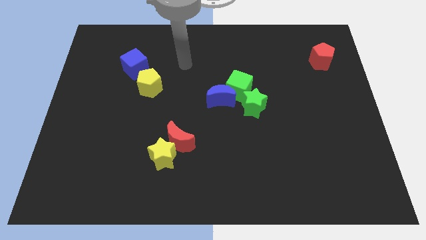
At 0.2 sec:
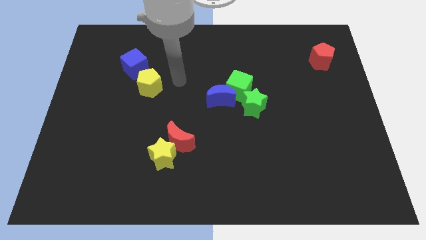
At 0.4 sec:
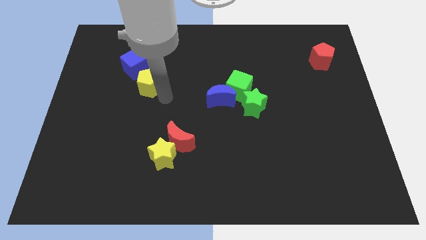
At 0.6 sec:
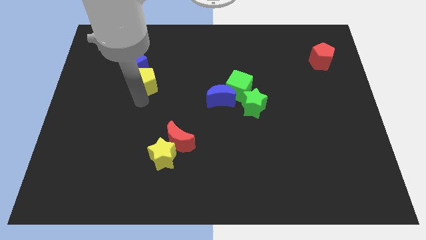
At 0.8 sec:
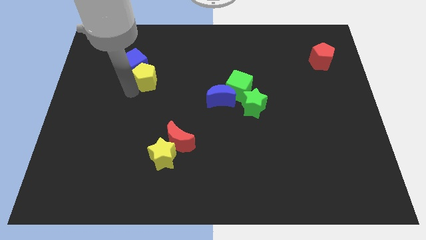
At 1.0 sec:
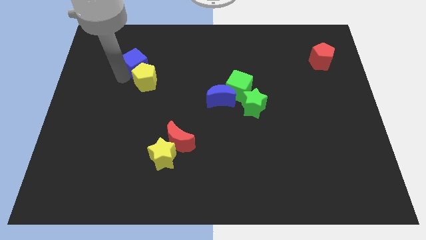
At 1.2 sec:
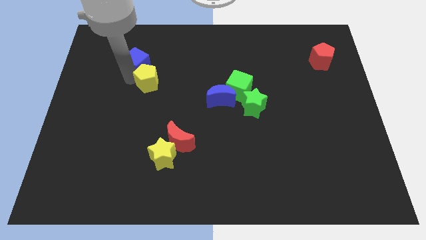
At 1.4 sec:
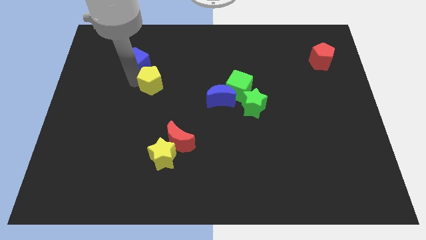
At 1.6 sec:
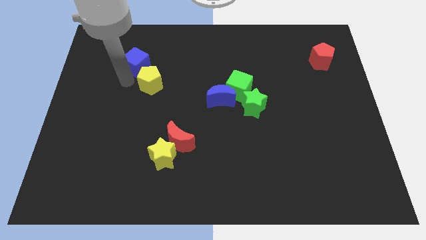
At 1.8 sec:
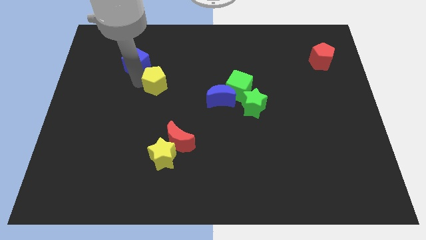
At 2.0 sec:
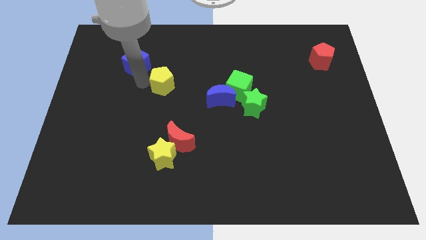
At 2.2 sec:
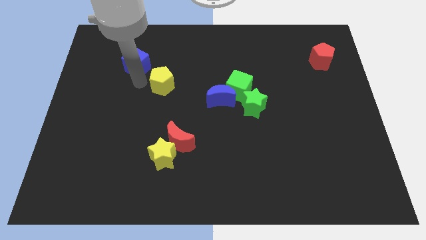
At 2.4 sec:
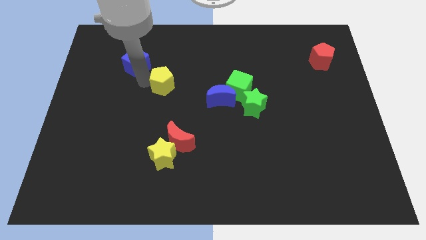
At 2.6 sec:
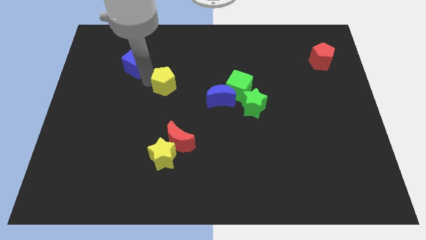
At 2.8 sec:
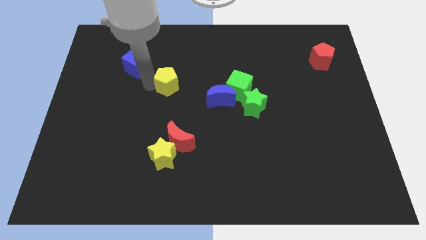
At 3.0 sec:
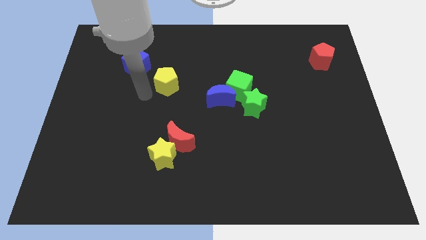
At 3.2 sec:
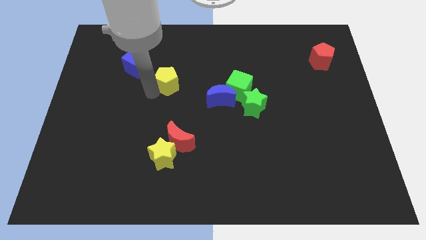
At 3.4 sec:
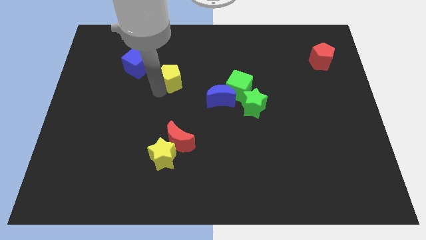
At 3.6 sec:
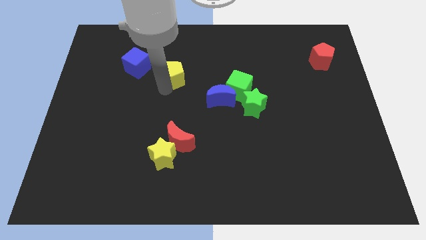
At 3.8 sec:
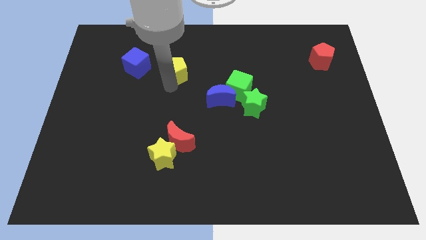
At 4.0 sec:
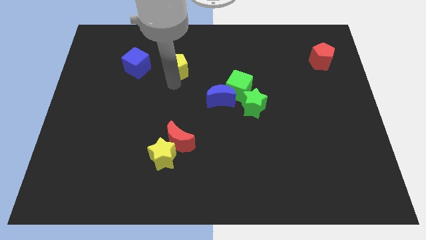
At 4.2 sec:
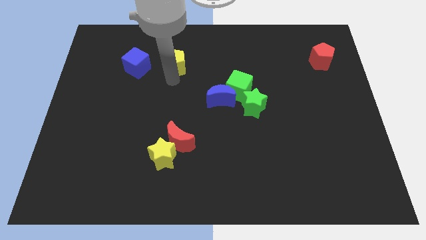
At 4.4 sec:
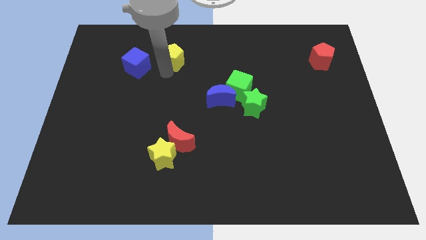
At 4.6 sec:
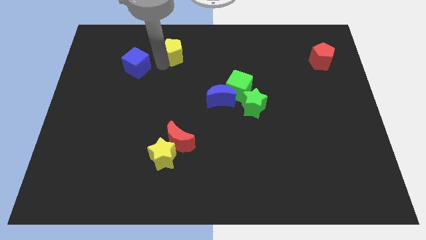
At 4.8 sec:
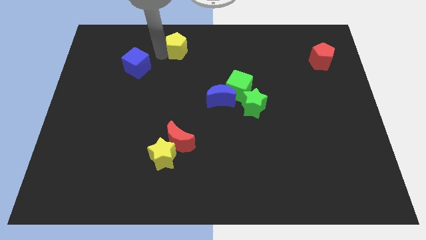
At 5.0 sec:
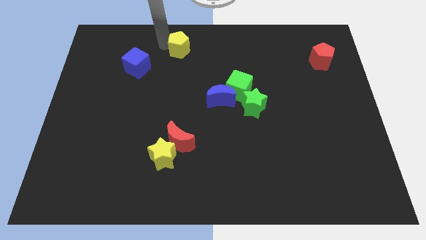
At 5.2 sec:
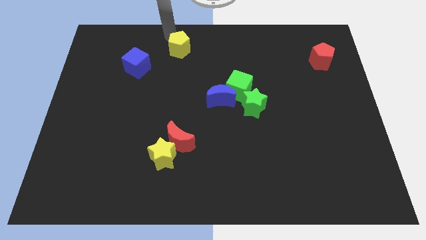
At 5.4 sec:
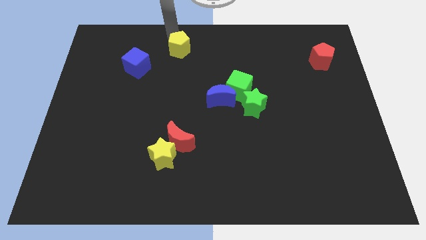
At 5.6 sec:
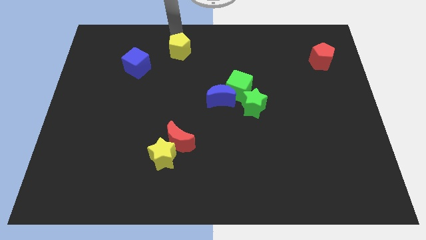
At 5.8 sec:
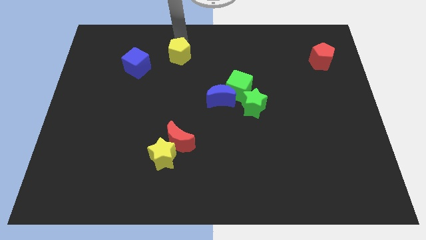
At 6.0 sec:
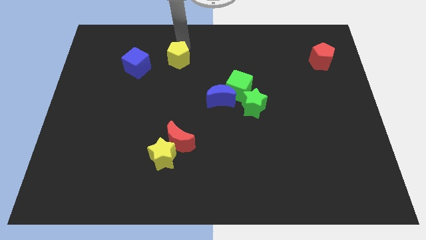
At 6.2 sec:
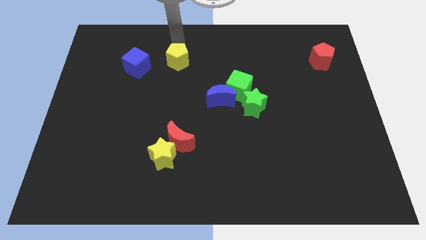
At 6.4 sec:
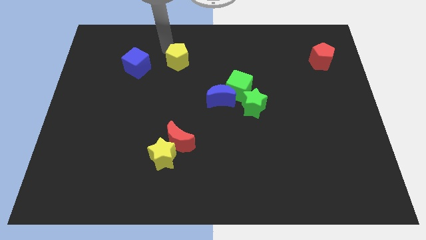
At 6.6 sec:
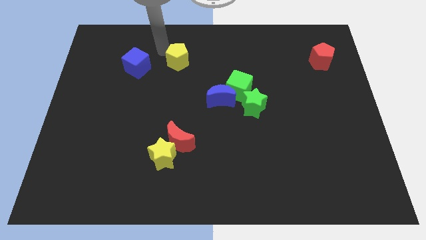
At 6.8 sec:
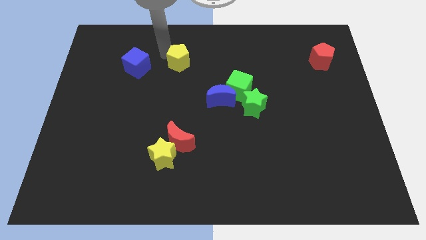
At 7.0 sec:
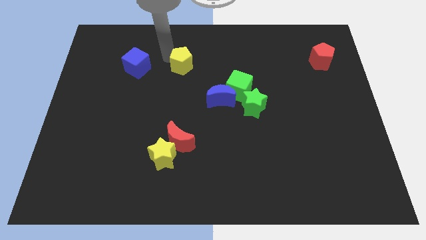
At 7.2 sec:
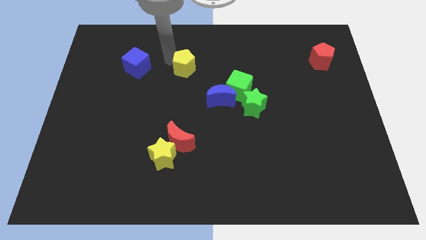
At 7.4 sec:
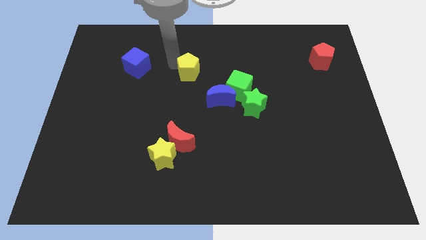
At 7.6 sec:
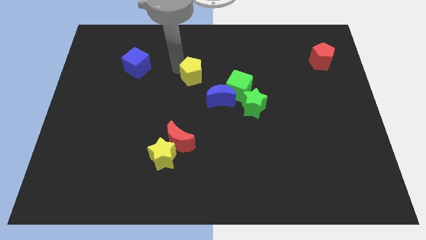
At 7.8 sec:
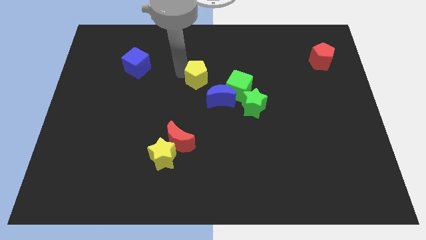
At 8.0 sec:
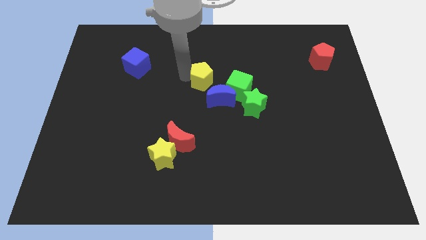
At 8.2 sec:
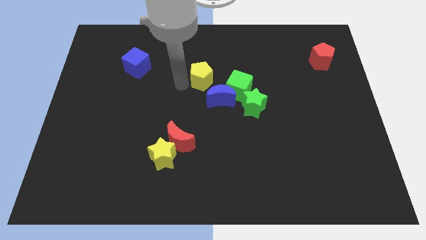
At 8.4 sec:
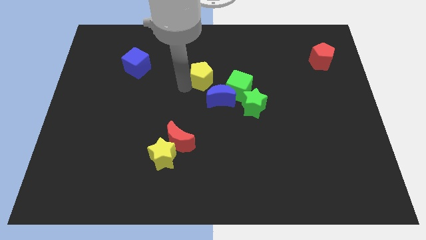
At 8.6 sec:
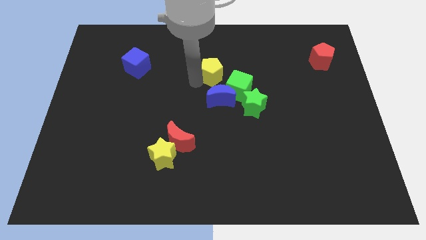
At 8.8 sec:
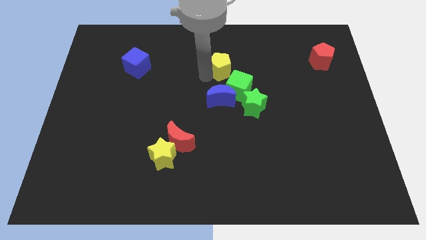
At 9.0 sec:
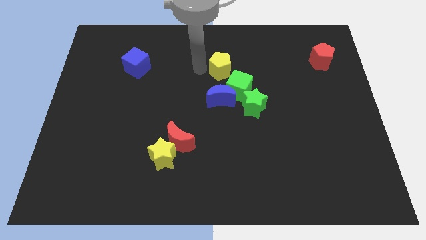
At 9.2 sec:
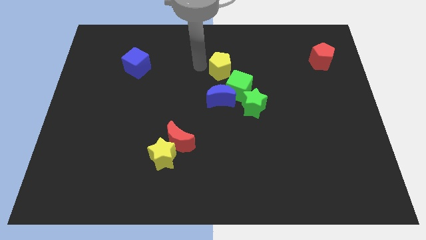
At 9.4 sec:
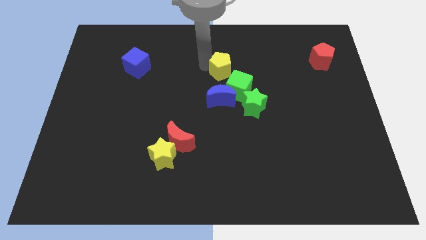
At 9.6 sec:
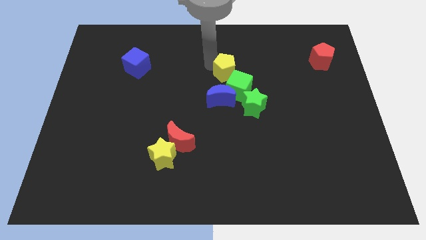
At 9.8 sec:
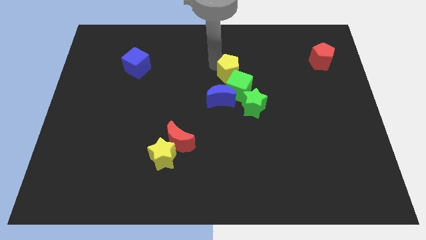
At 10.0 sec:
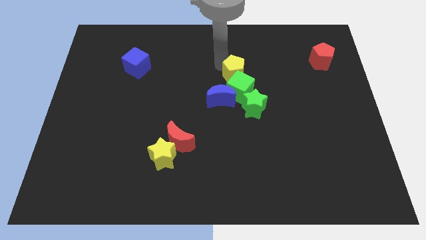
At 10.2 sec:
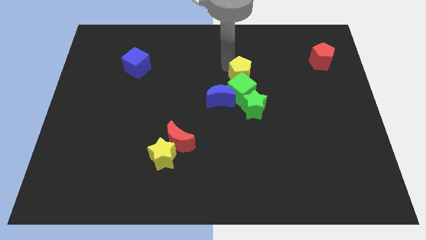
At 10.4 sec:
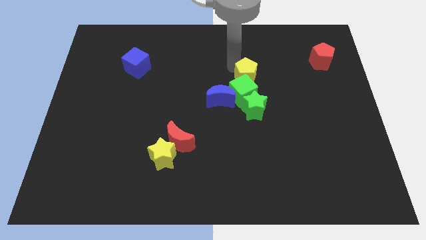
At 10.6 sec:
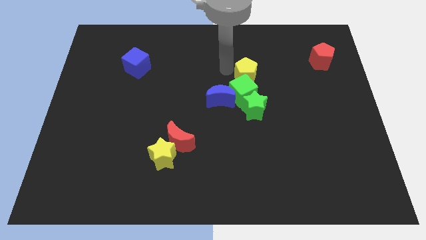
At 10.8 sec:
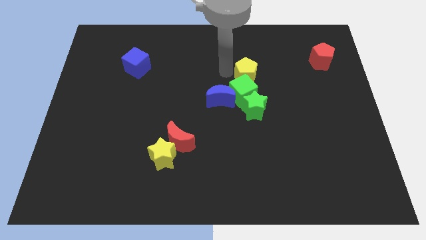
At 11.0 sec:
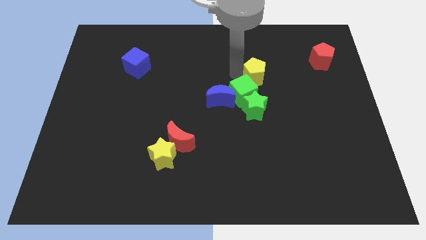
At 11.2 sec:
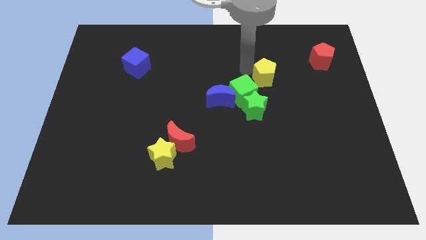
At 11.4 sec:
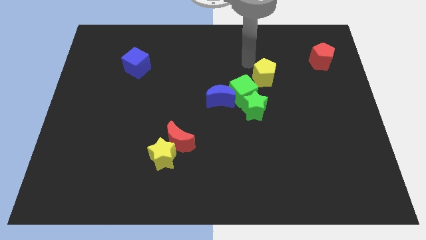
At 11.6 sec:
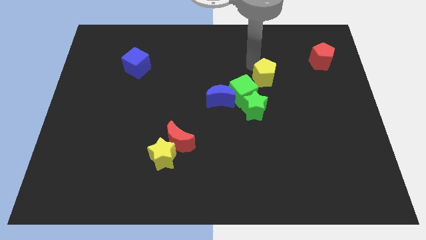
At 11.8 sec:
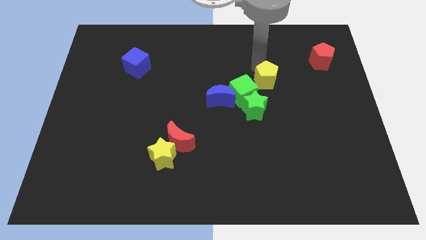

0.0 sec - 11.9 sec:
slide the yellow pentagon just right of the green cube
